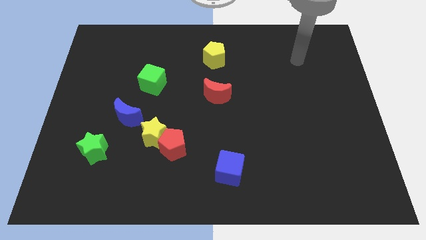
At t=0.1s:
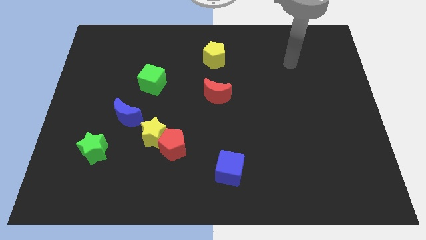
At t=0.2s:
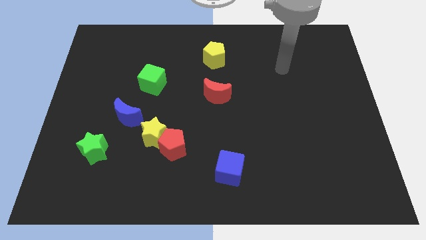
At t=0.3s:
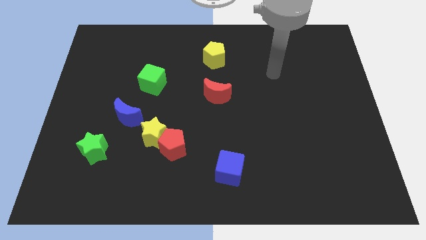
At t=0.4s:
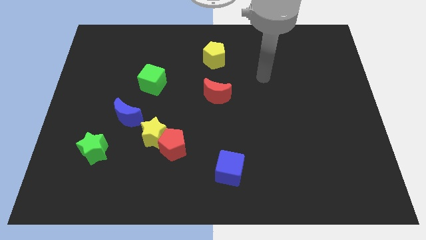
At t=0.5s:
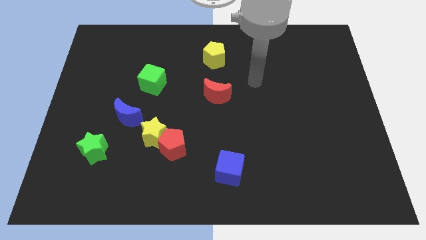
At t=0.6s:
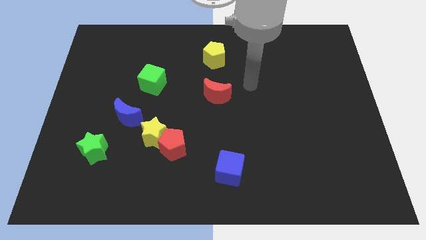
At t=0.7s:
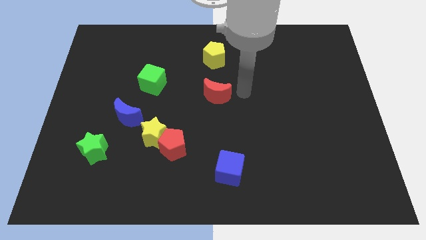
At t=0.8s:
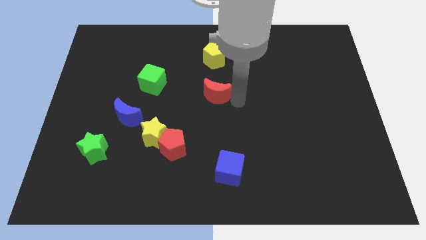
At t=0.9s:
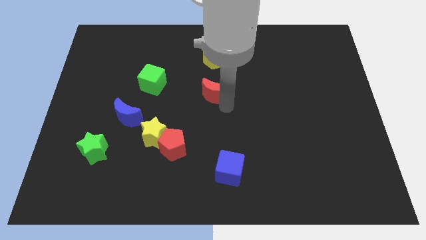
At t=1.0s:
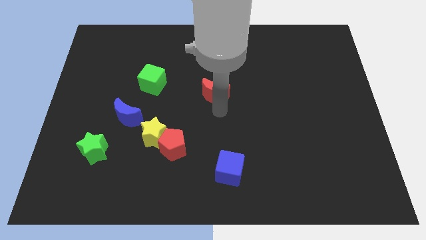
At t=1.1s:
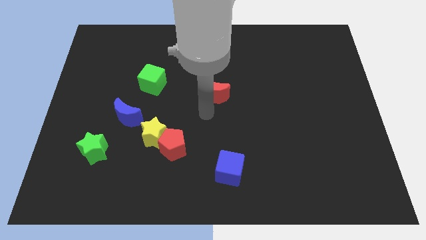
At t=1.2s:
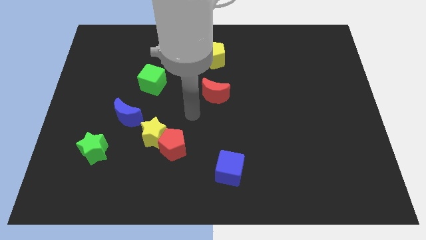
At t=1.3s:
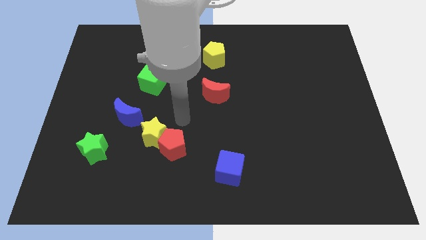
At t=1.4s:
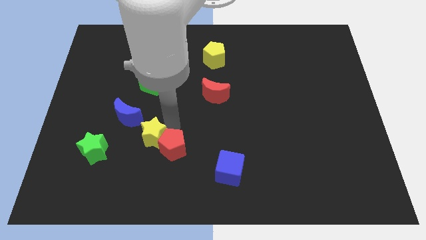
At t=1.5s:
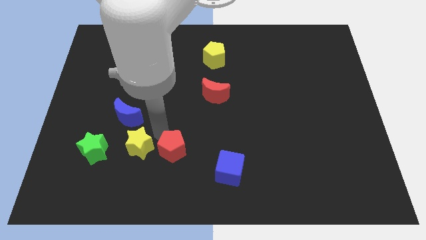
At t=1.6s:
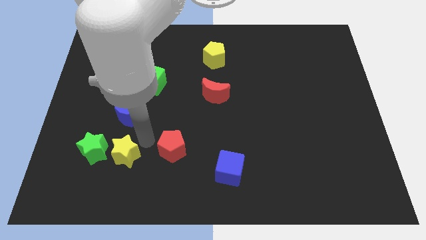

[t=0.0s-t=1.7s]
move the red pentagon away from the yellow star

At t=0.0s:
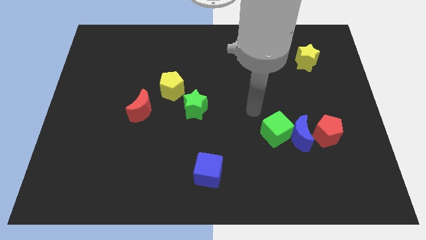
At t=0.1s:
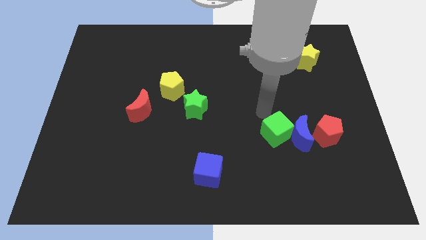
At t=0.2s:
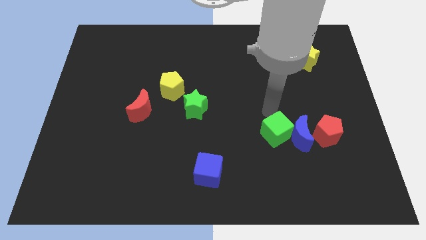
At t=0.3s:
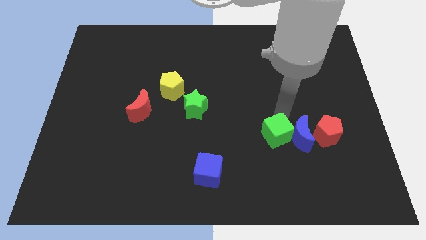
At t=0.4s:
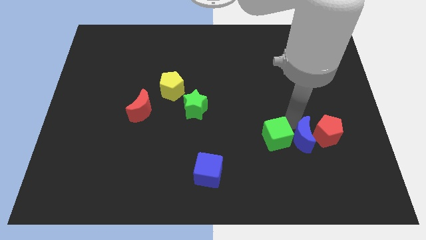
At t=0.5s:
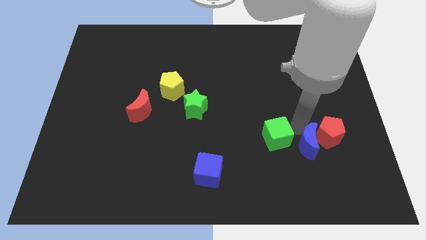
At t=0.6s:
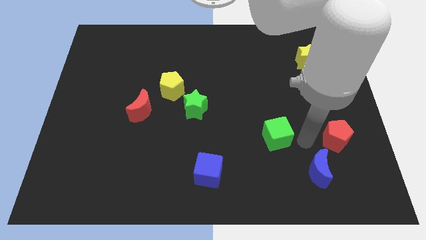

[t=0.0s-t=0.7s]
pull the green cube apart from the blue moon

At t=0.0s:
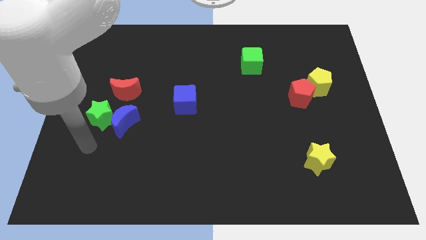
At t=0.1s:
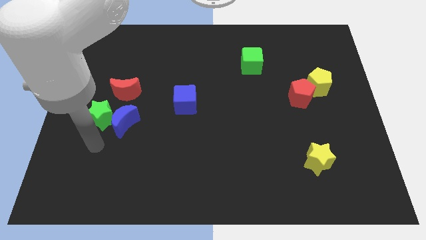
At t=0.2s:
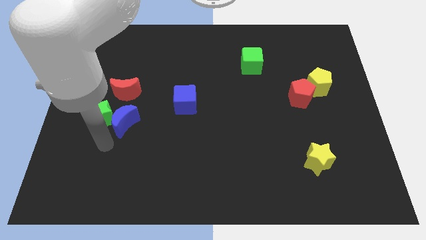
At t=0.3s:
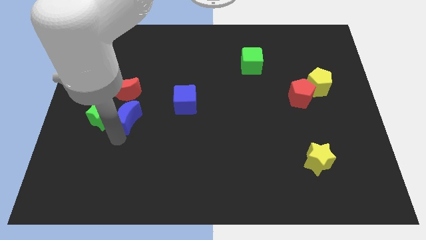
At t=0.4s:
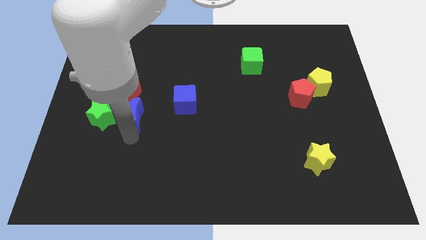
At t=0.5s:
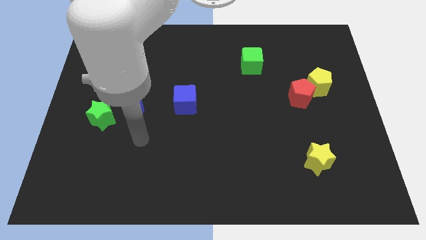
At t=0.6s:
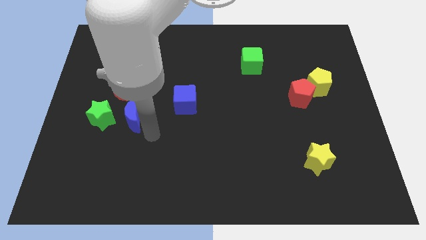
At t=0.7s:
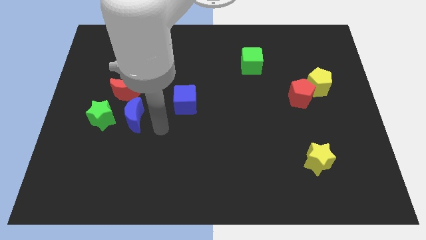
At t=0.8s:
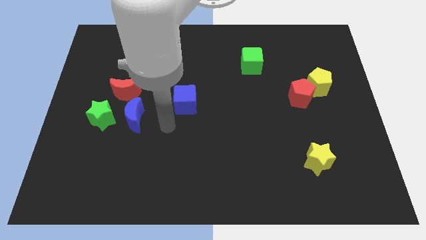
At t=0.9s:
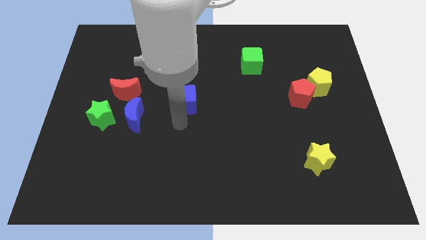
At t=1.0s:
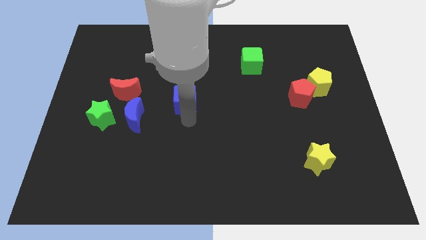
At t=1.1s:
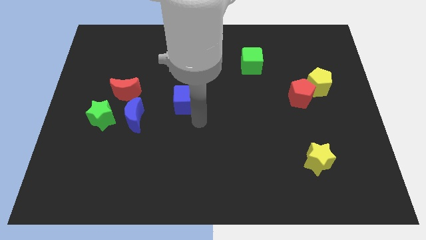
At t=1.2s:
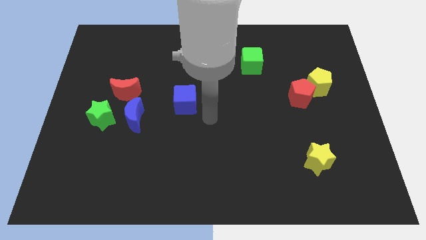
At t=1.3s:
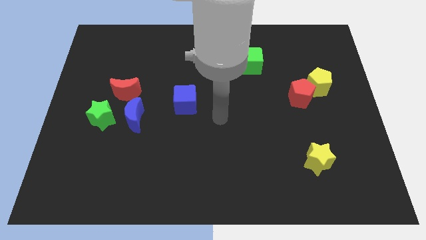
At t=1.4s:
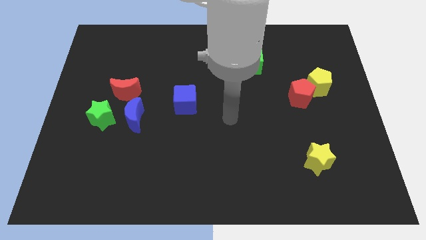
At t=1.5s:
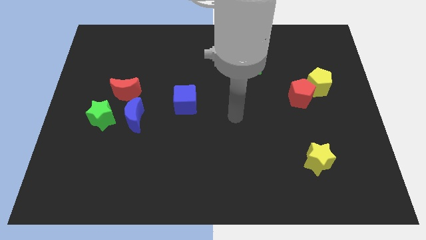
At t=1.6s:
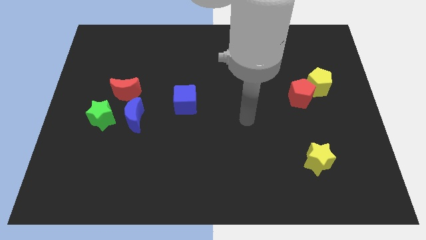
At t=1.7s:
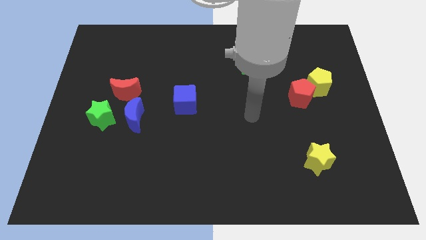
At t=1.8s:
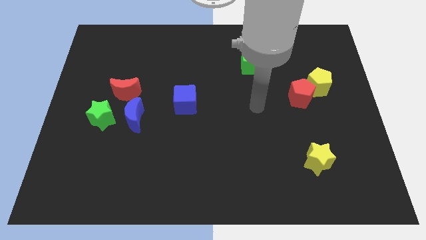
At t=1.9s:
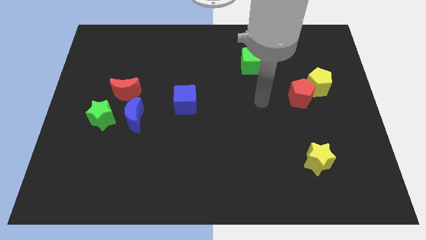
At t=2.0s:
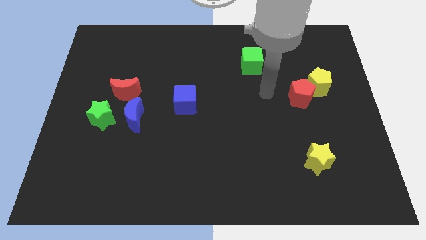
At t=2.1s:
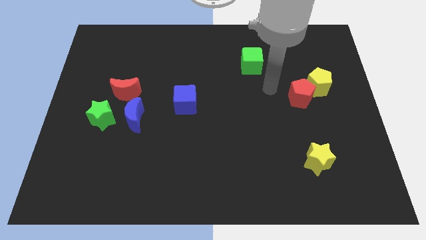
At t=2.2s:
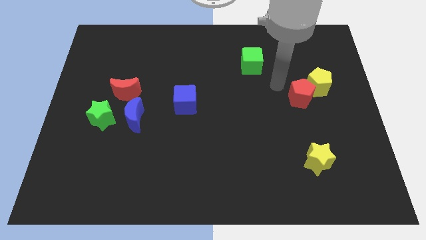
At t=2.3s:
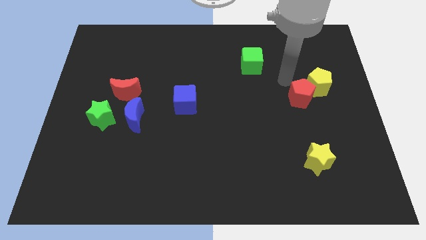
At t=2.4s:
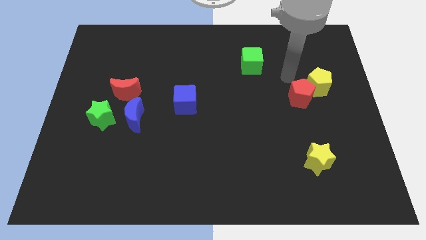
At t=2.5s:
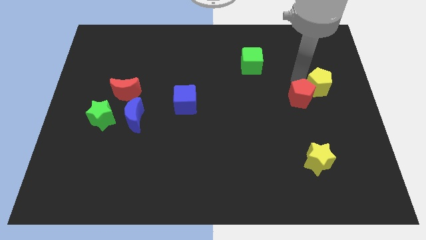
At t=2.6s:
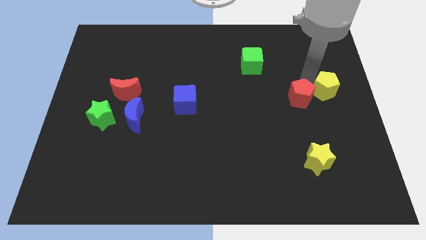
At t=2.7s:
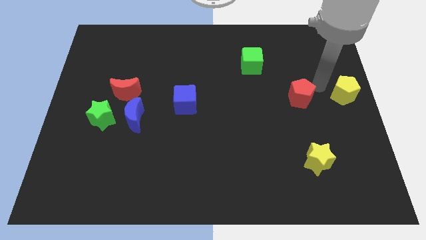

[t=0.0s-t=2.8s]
pull the red pentagon apart from the yellow pentagon

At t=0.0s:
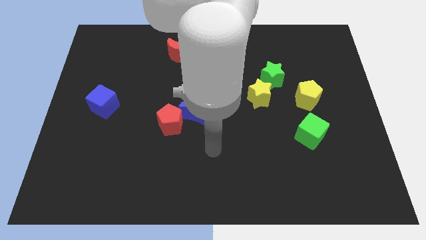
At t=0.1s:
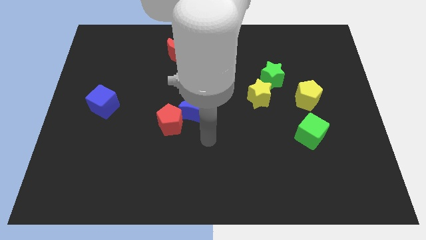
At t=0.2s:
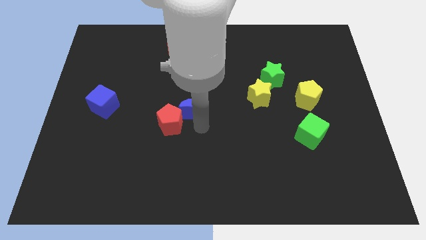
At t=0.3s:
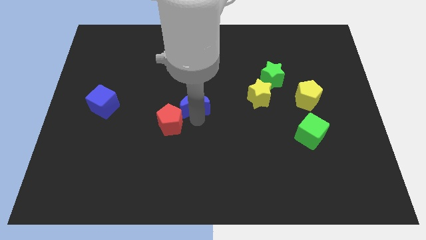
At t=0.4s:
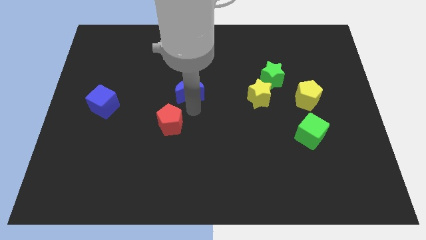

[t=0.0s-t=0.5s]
separate the red pentagon from the blue moon

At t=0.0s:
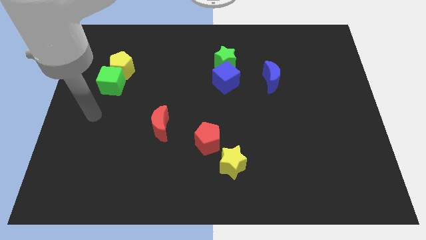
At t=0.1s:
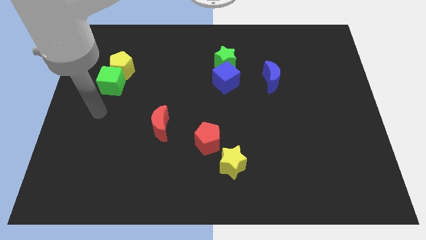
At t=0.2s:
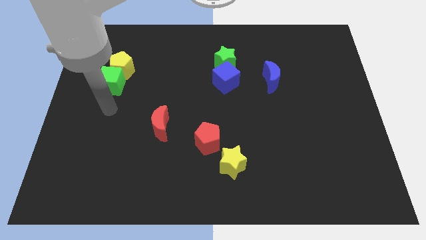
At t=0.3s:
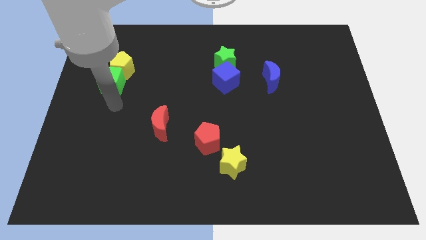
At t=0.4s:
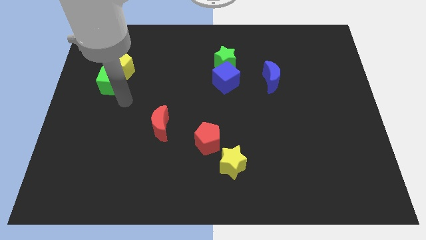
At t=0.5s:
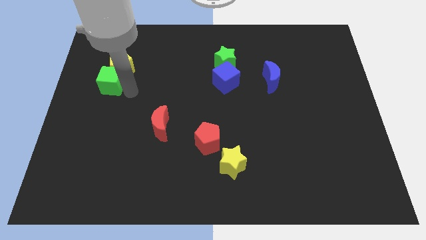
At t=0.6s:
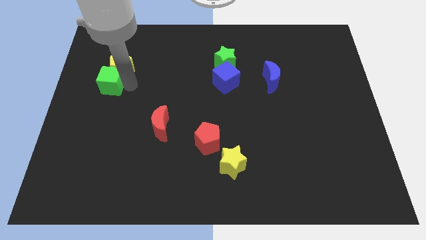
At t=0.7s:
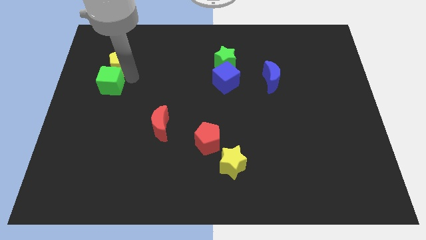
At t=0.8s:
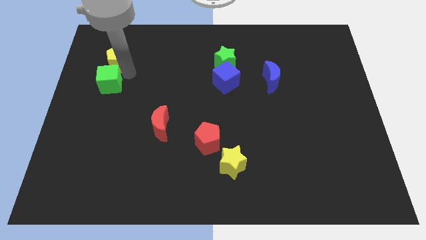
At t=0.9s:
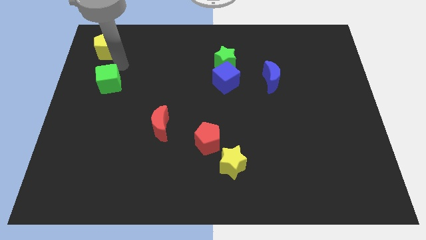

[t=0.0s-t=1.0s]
pull the green cube apart from the yellow pentagon

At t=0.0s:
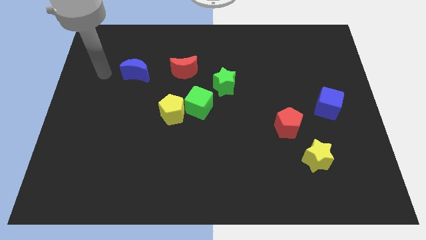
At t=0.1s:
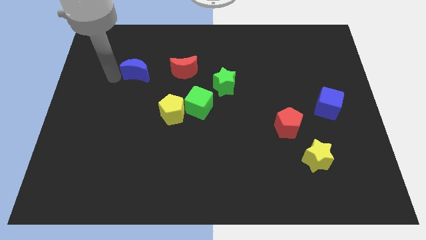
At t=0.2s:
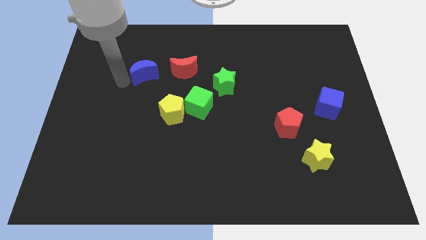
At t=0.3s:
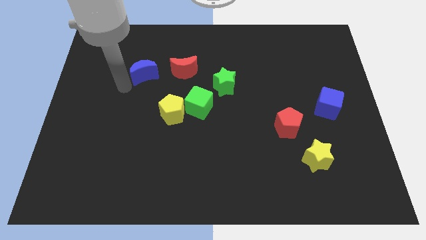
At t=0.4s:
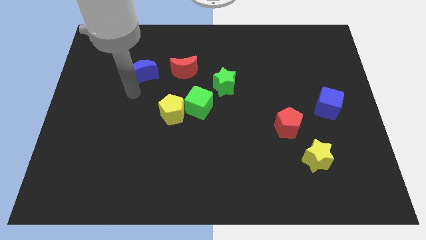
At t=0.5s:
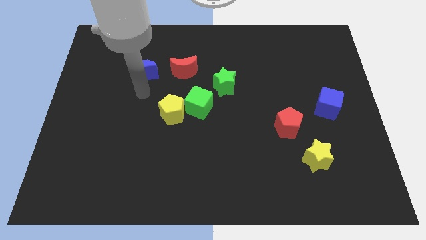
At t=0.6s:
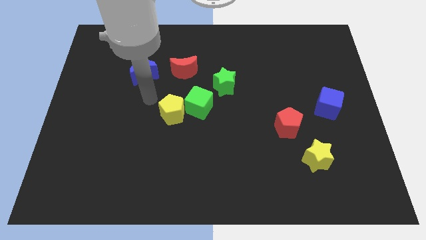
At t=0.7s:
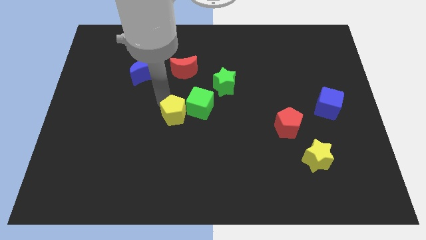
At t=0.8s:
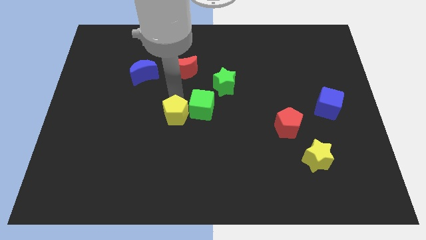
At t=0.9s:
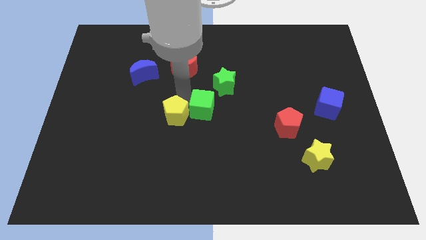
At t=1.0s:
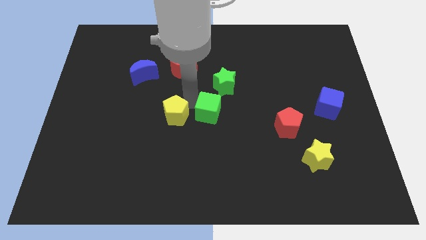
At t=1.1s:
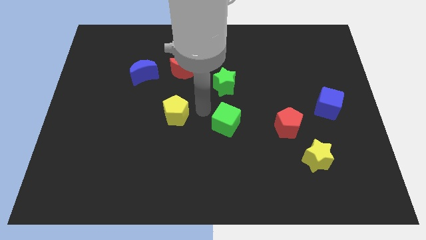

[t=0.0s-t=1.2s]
separate the yellow pentagon from the green cube

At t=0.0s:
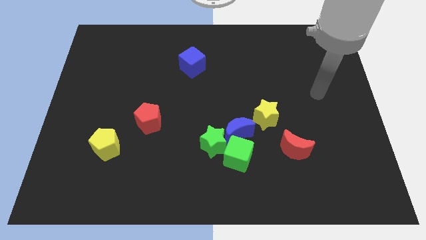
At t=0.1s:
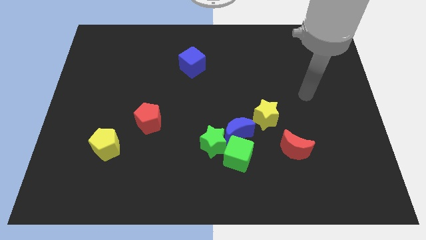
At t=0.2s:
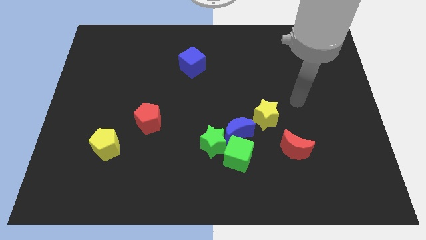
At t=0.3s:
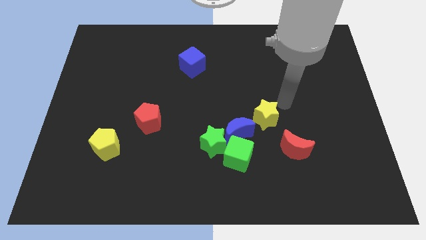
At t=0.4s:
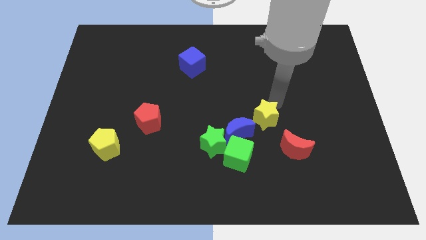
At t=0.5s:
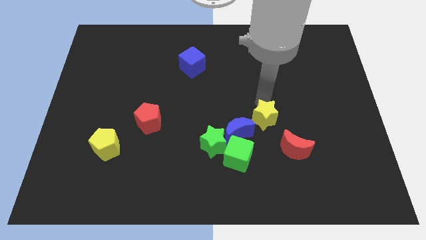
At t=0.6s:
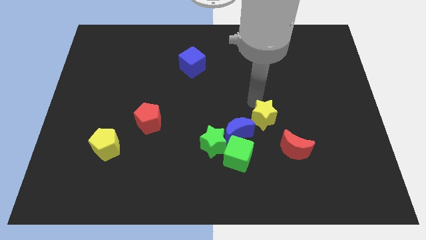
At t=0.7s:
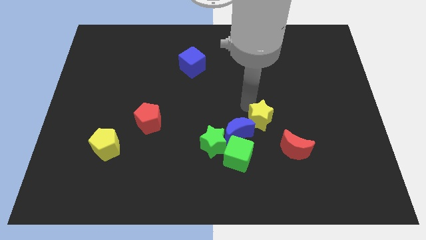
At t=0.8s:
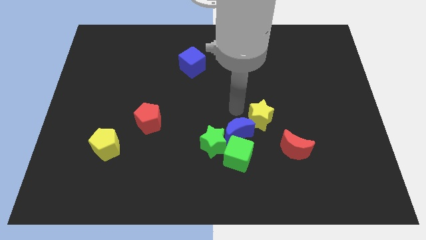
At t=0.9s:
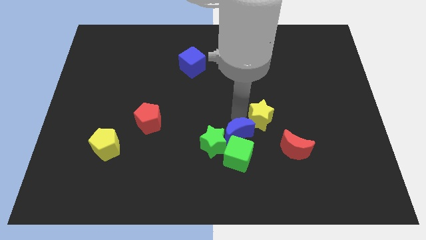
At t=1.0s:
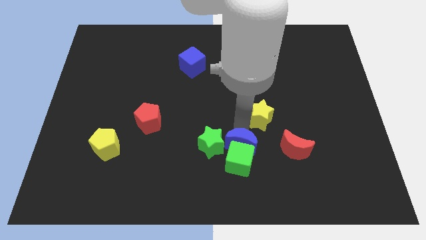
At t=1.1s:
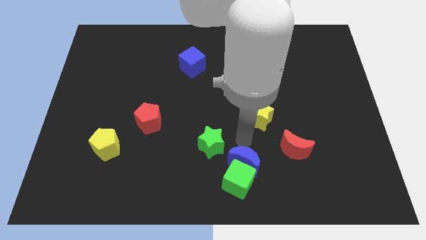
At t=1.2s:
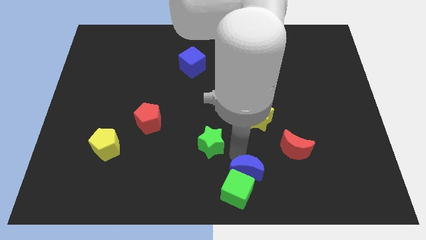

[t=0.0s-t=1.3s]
move the green star away from the blue moon and green cube

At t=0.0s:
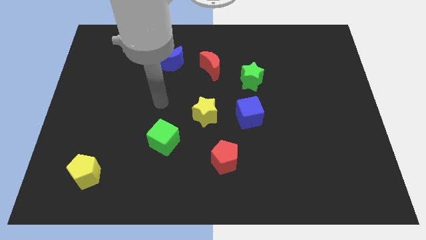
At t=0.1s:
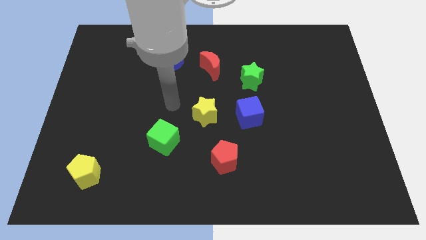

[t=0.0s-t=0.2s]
move the blue cube away from the yellow star

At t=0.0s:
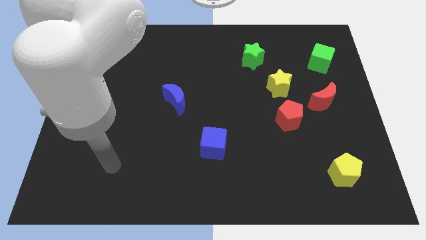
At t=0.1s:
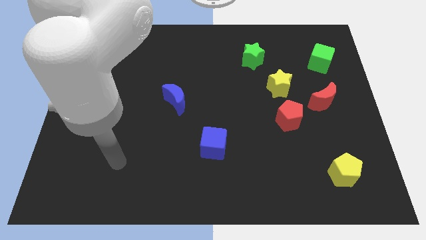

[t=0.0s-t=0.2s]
pull the yellow star apart from the red pentagon
